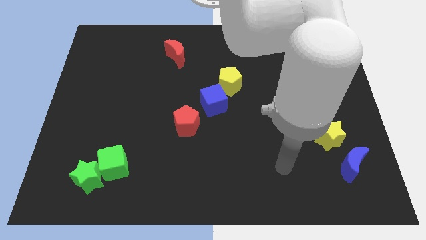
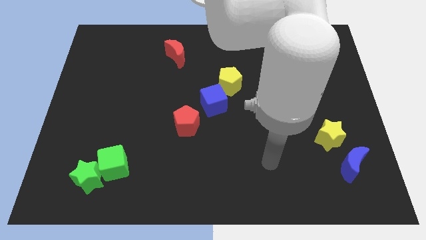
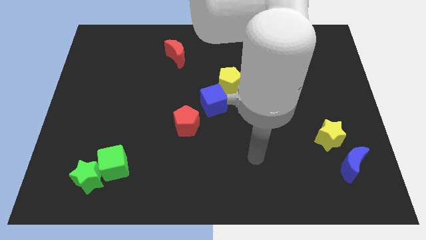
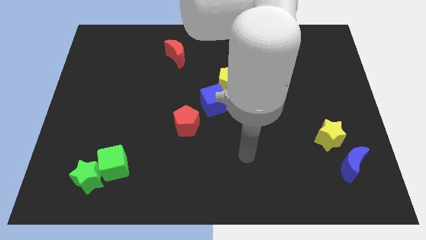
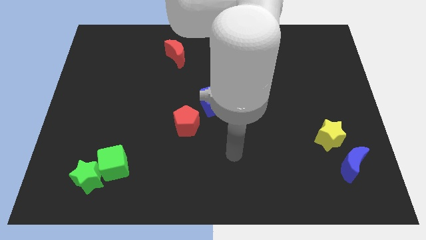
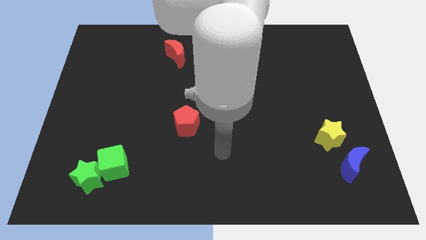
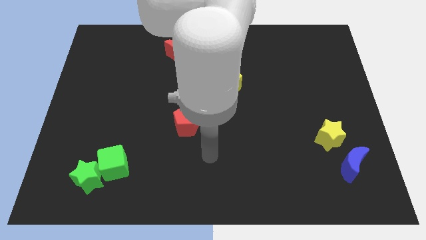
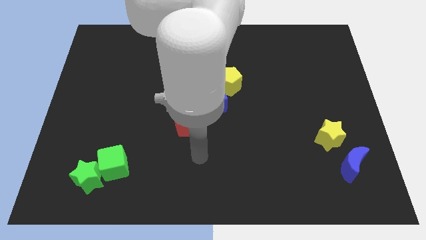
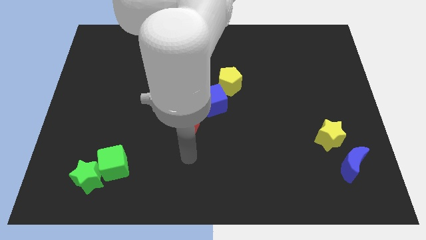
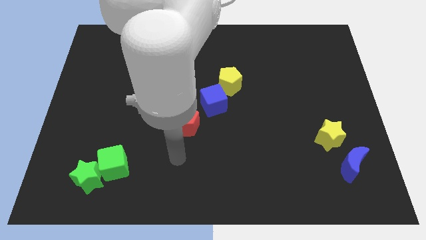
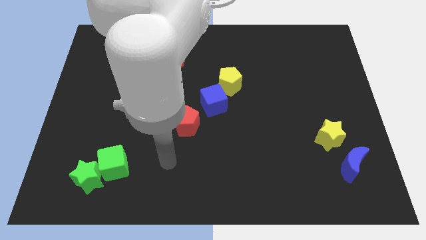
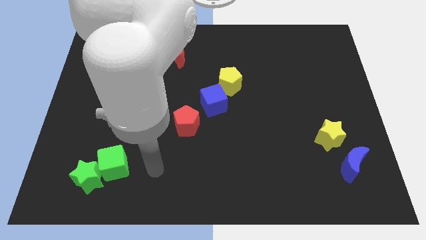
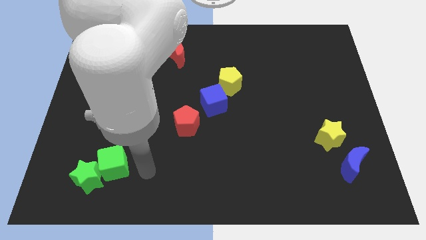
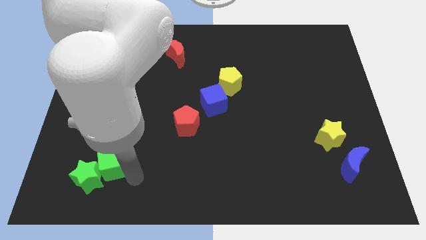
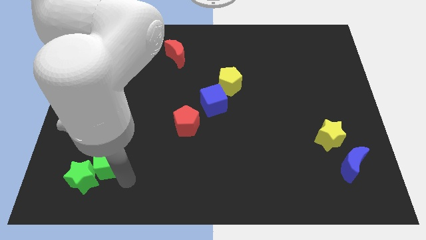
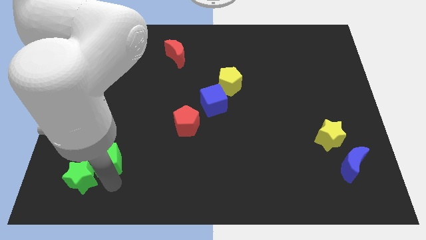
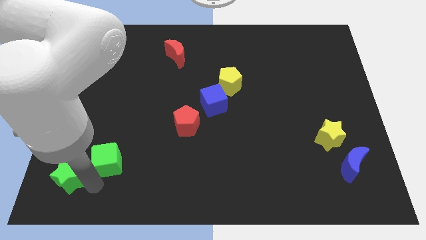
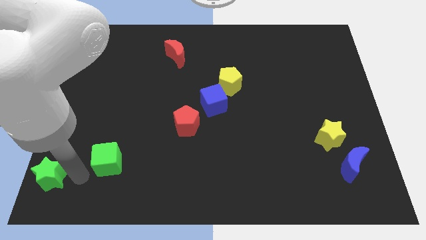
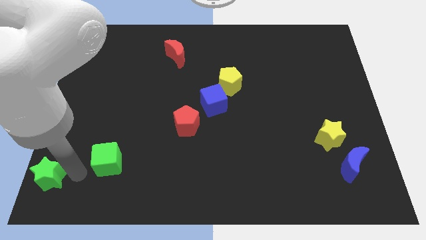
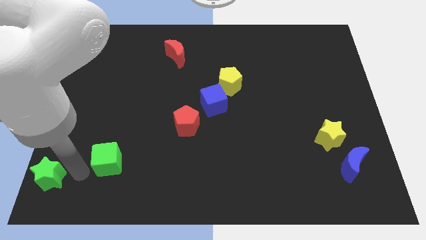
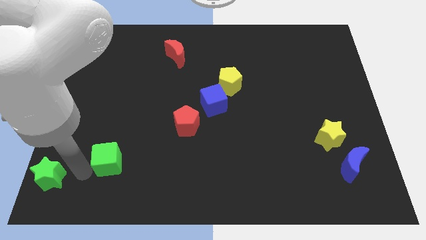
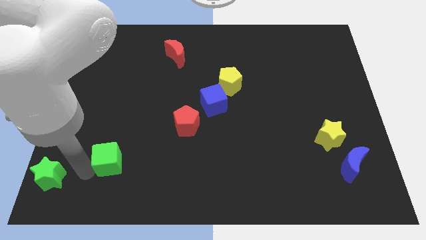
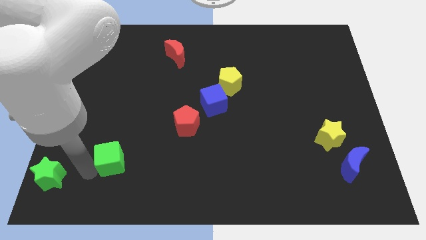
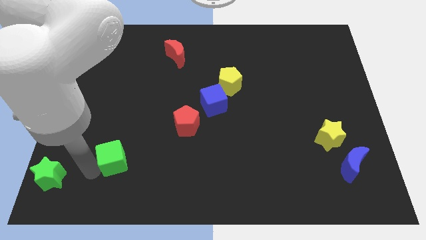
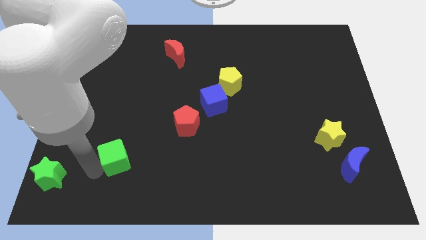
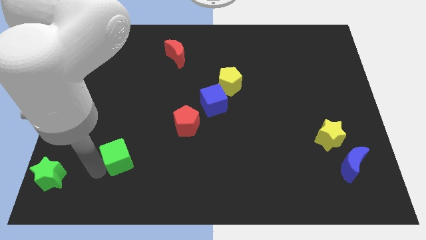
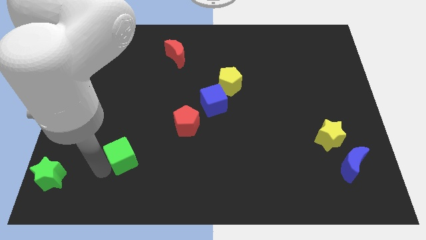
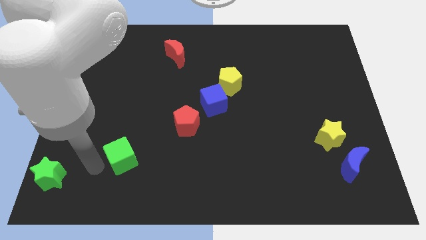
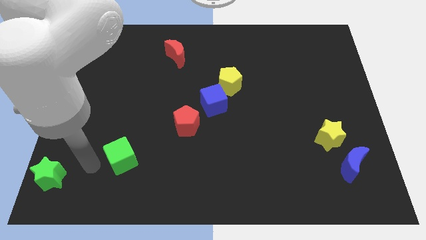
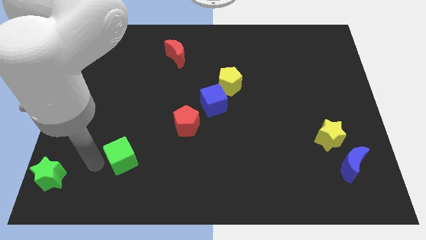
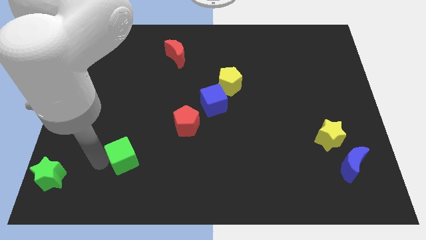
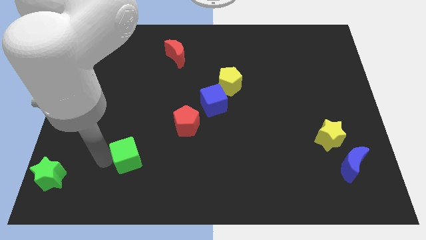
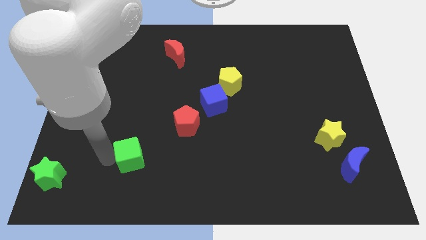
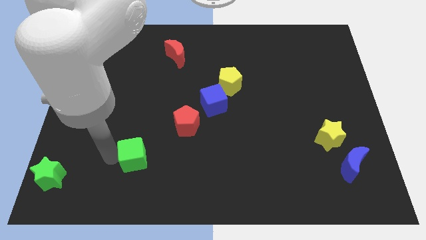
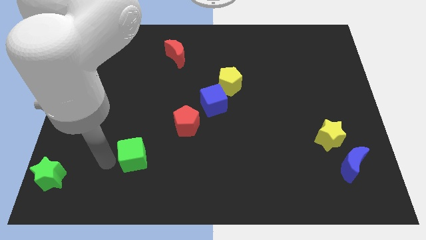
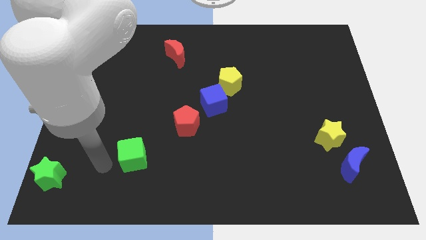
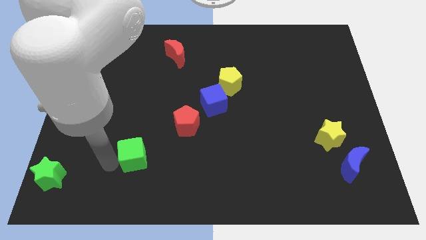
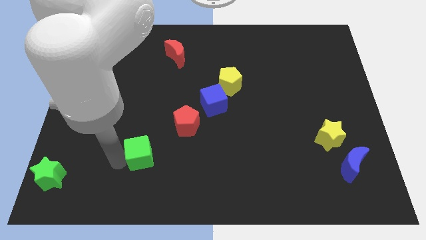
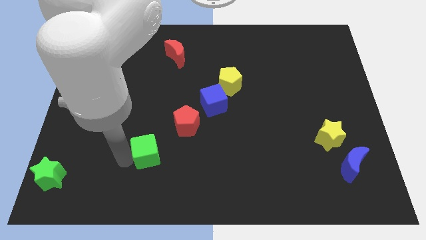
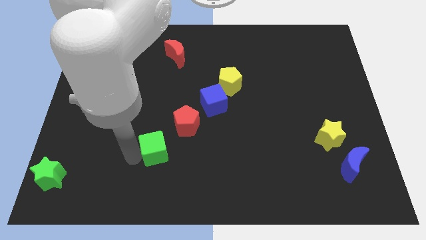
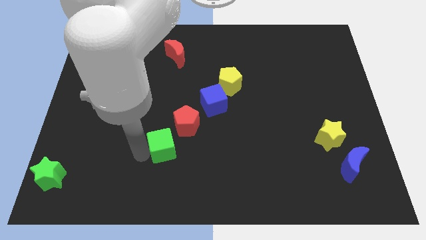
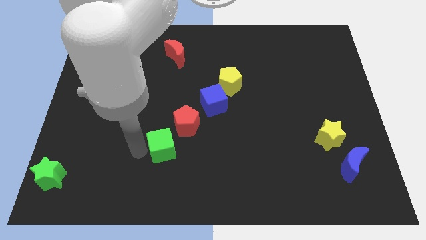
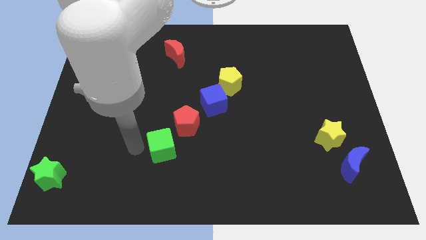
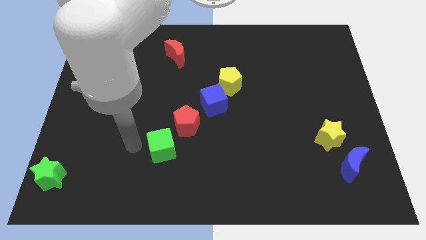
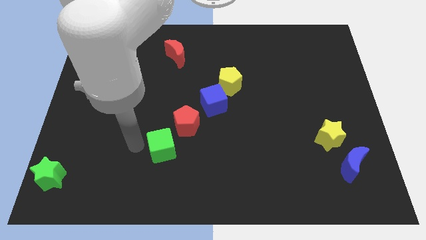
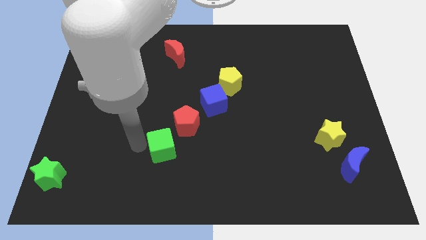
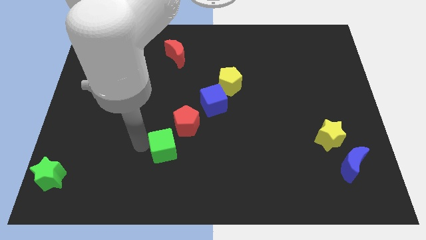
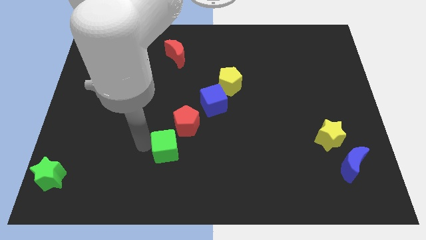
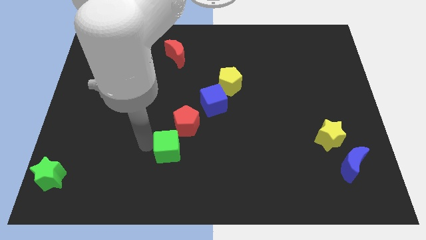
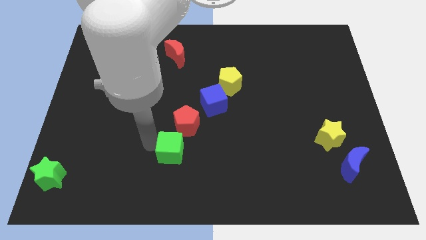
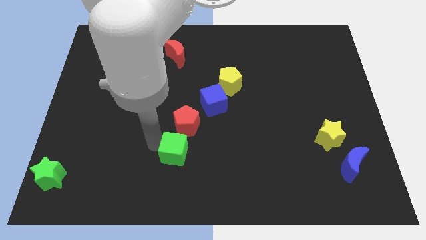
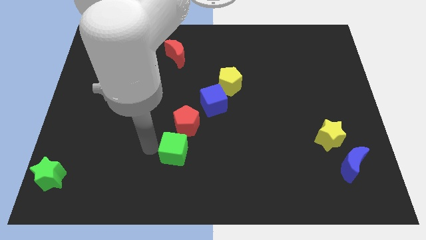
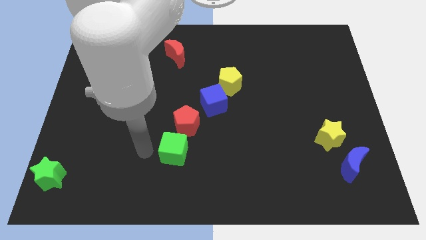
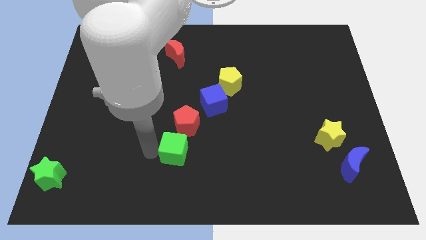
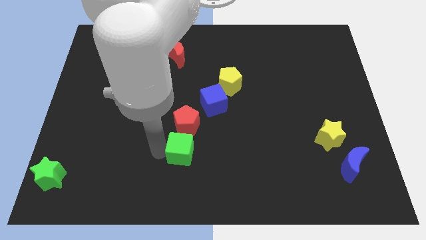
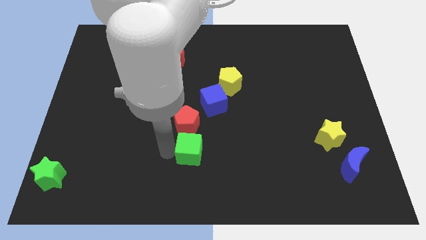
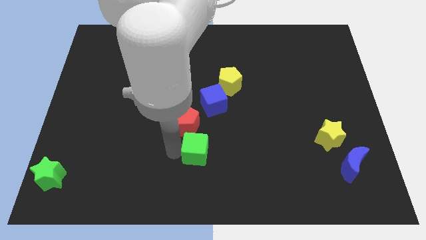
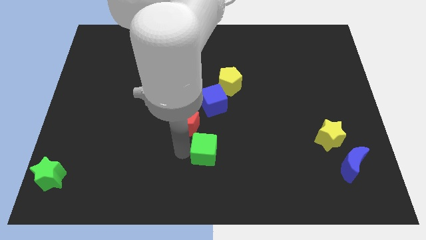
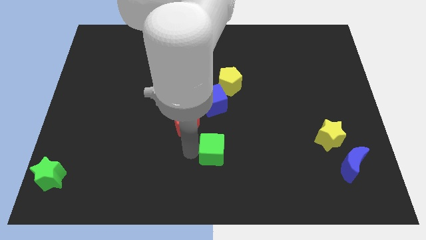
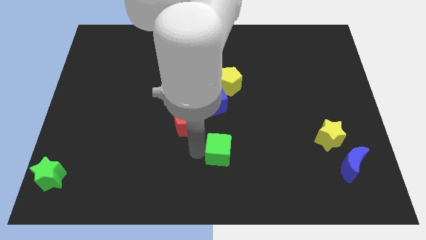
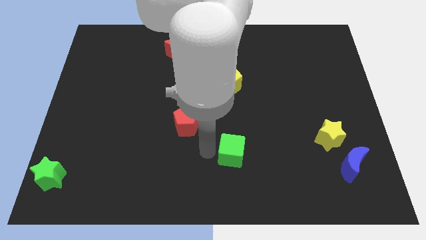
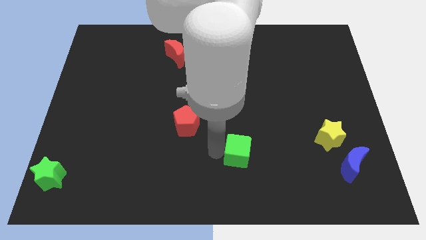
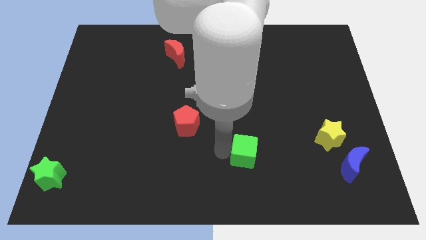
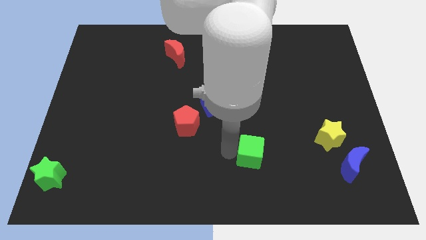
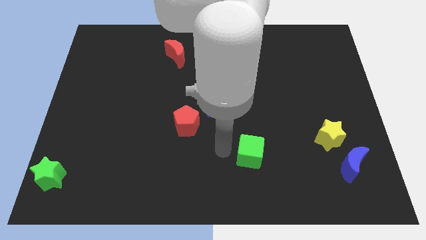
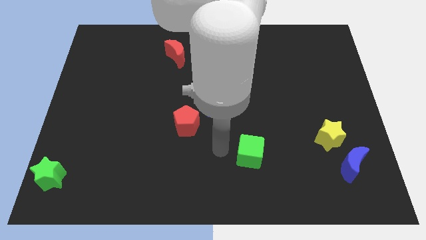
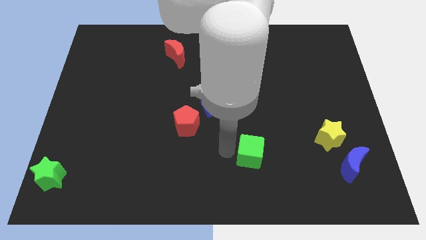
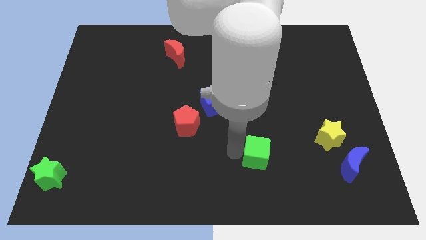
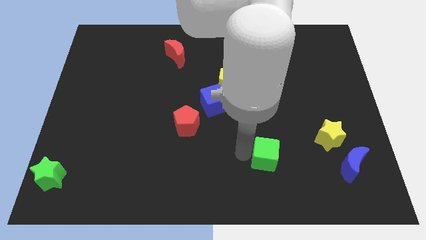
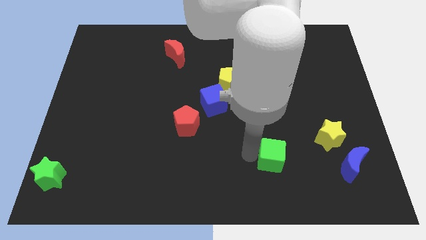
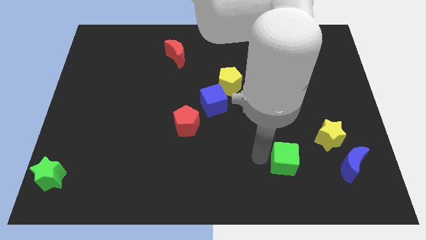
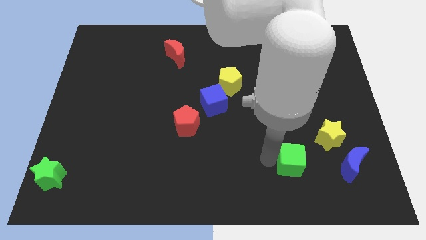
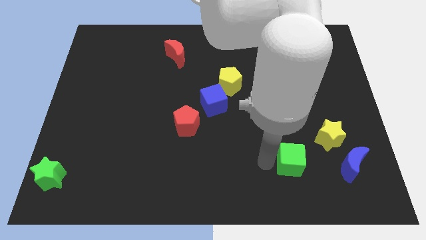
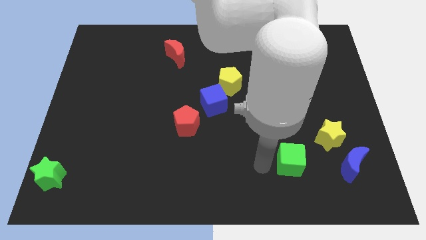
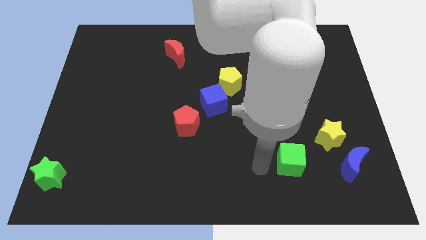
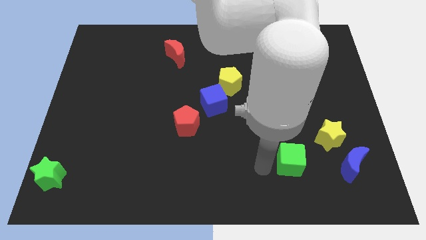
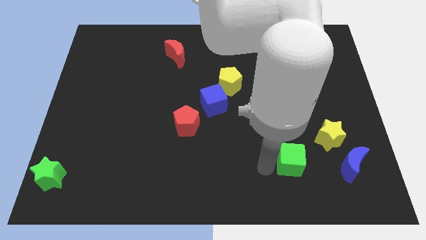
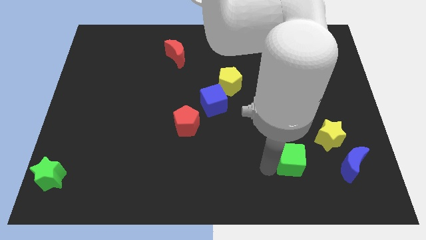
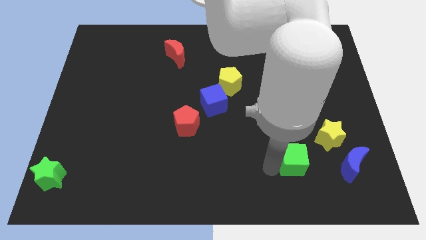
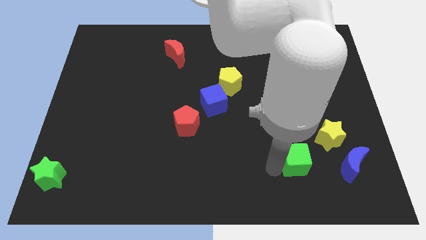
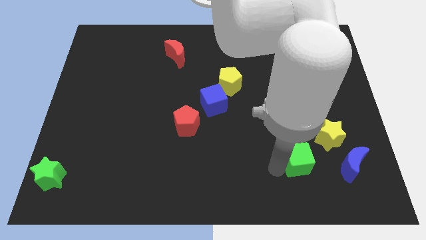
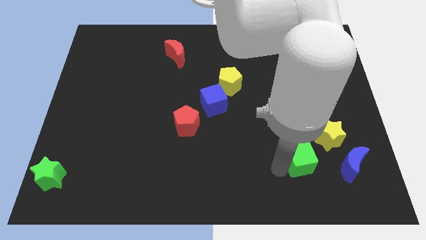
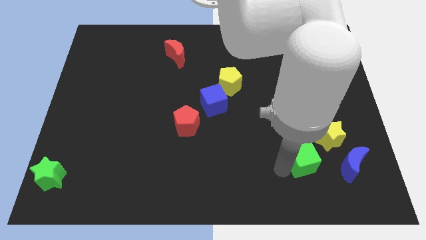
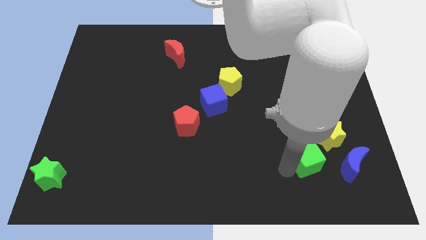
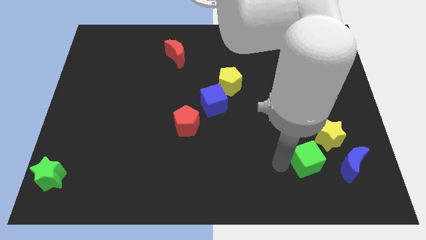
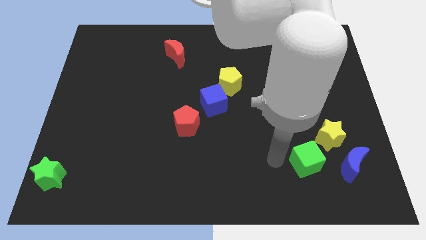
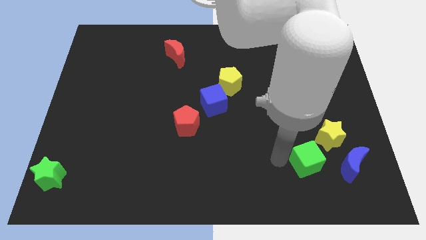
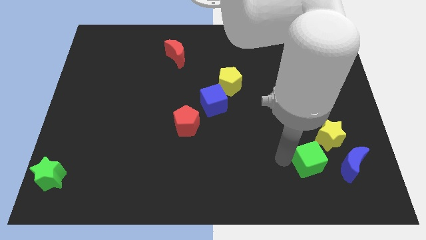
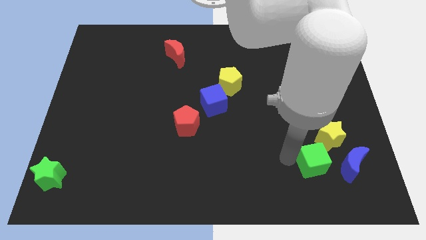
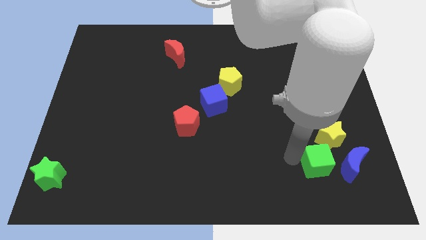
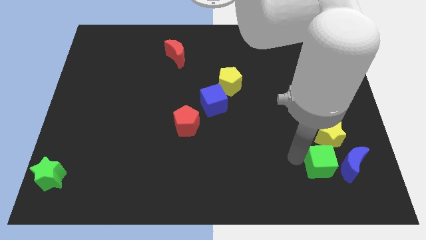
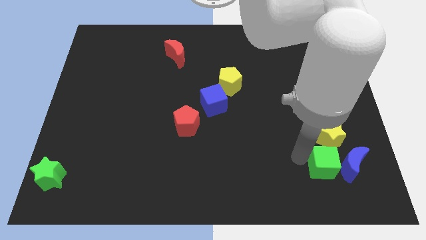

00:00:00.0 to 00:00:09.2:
move the green cube next to the blue moon
